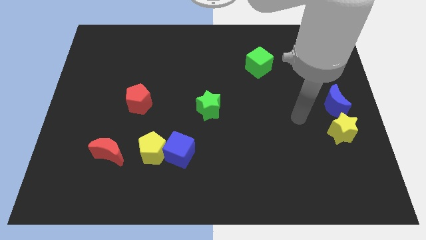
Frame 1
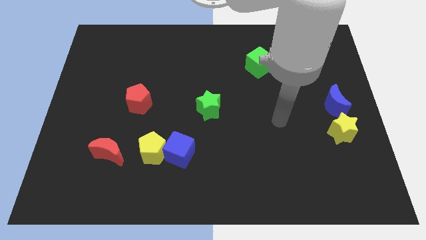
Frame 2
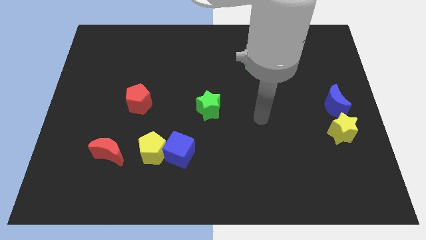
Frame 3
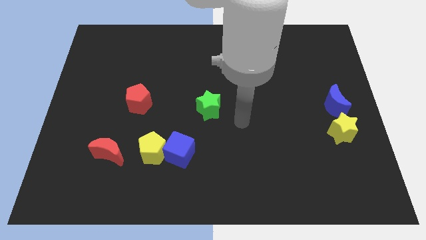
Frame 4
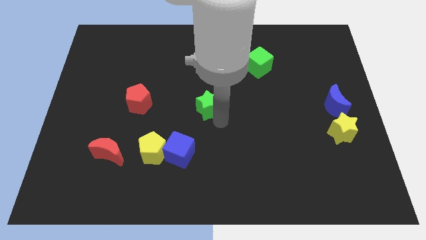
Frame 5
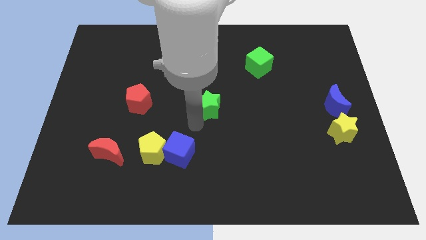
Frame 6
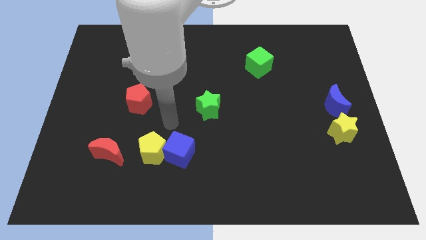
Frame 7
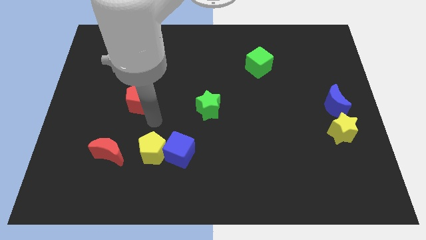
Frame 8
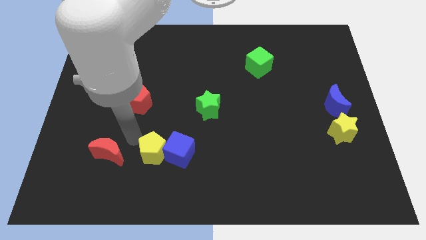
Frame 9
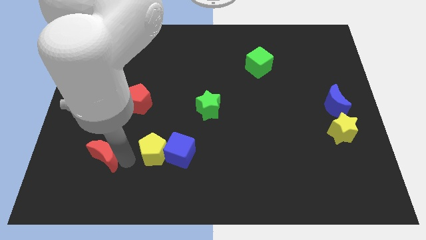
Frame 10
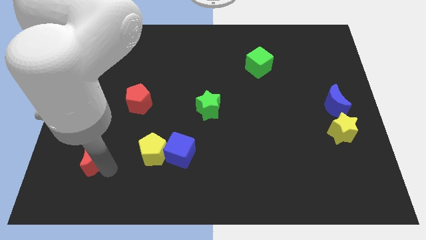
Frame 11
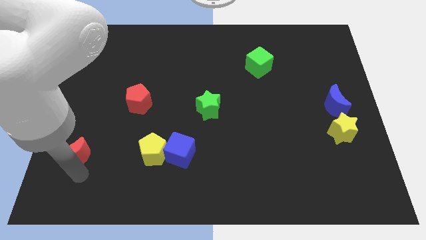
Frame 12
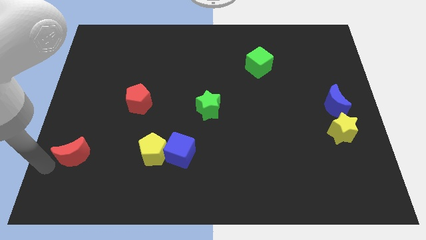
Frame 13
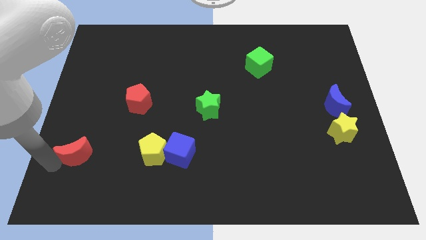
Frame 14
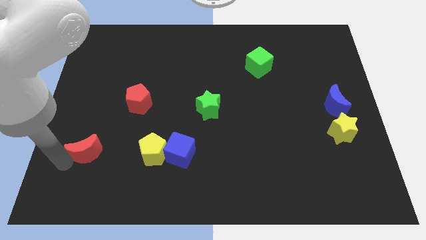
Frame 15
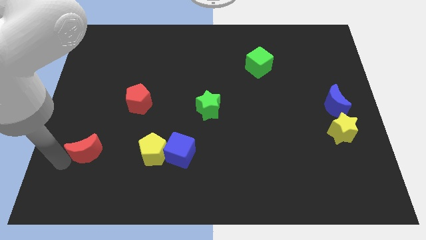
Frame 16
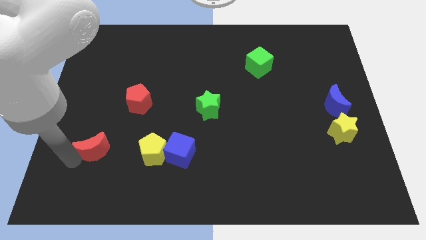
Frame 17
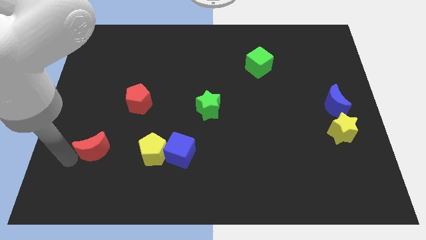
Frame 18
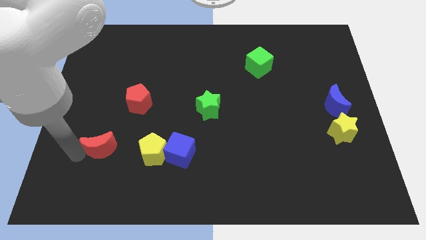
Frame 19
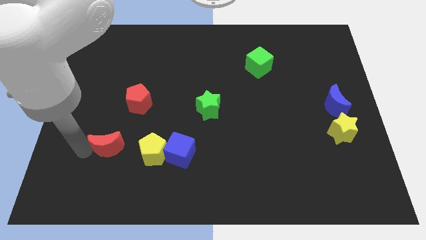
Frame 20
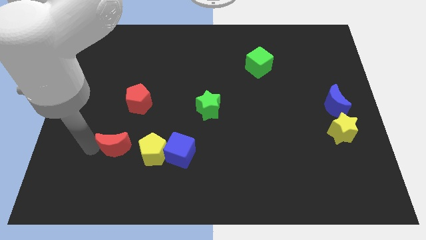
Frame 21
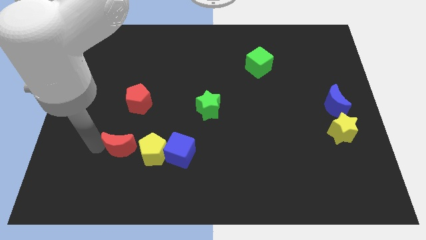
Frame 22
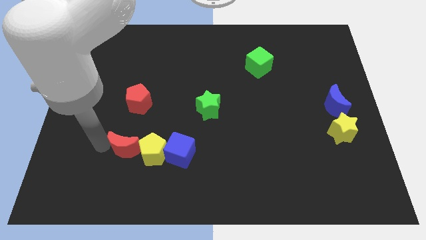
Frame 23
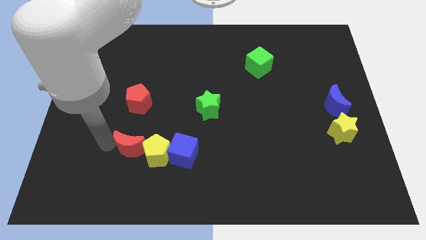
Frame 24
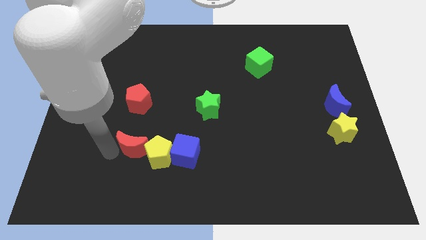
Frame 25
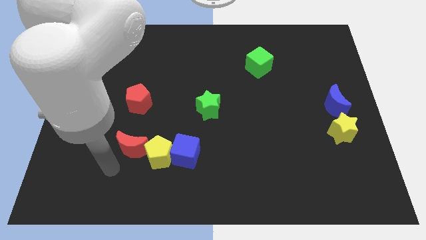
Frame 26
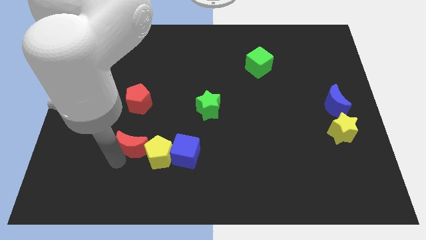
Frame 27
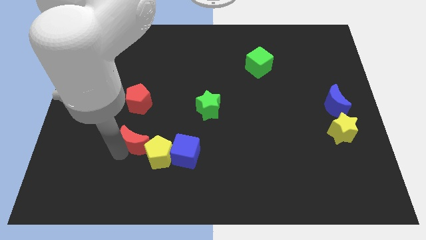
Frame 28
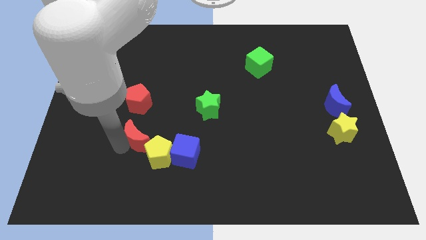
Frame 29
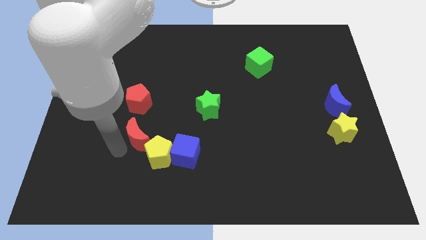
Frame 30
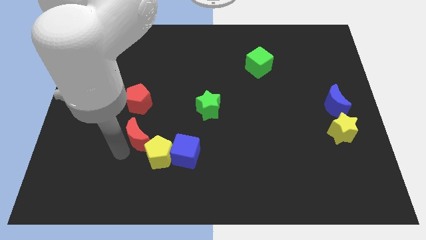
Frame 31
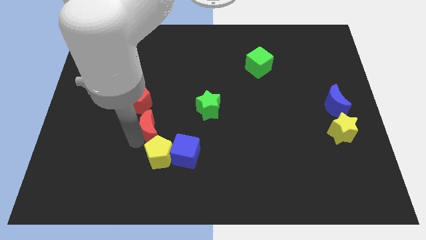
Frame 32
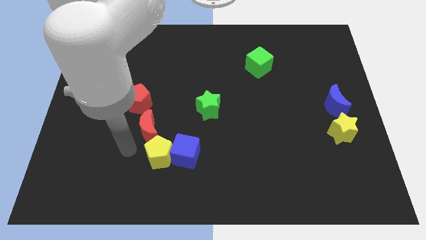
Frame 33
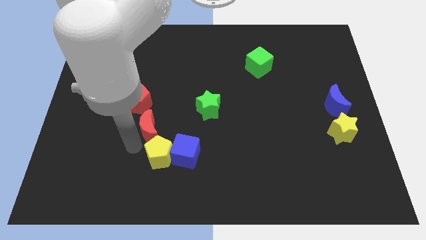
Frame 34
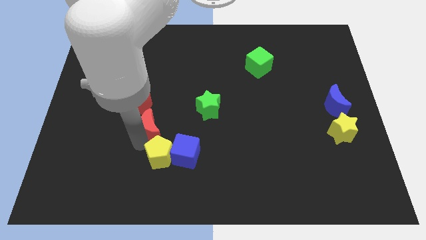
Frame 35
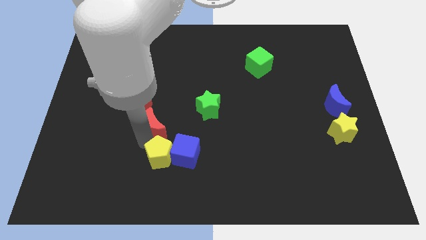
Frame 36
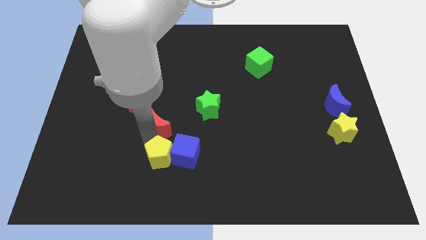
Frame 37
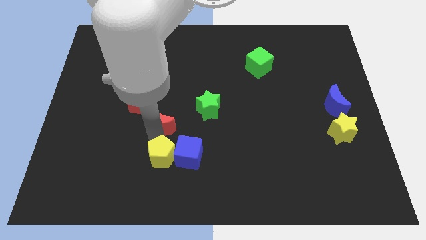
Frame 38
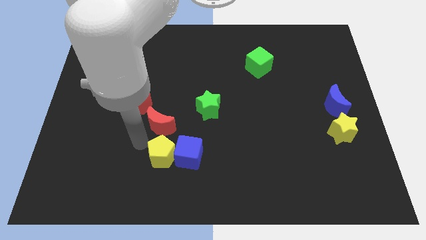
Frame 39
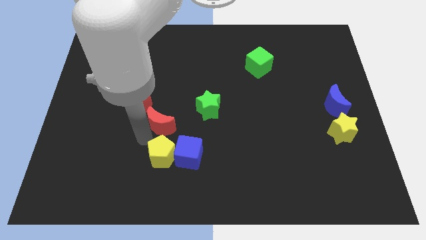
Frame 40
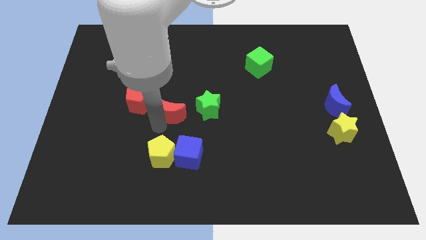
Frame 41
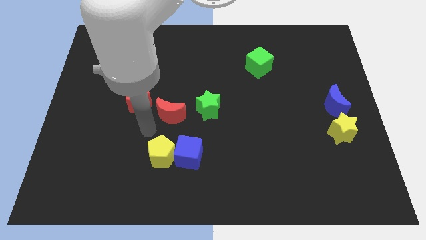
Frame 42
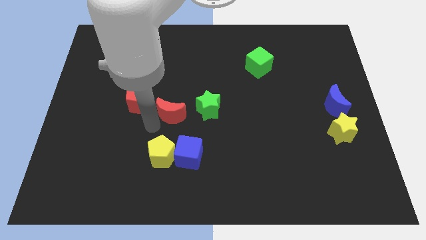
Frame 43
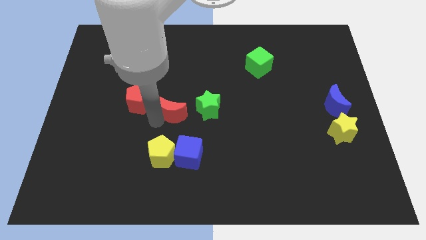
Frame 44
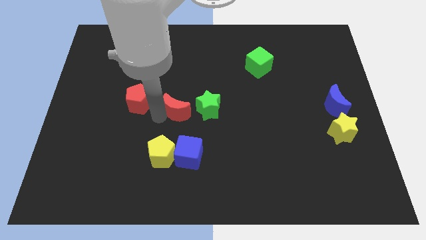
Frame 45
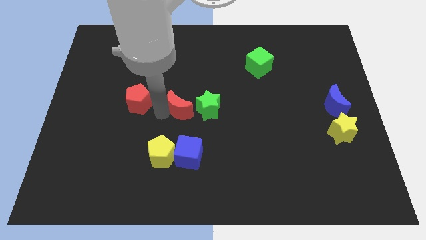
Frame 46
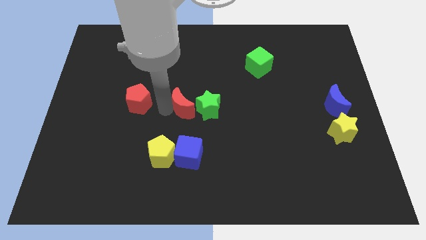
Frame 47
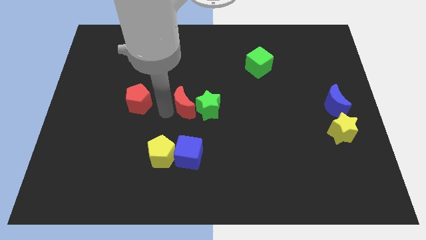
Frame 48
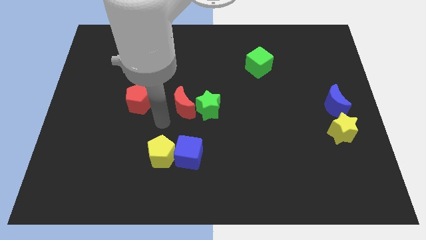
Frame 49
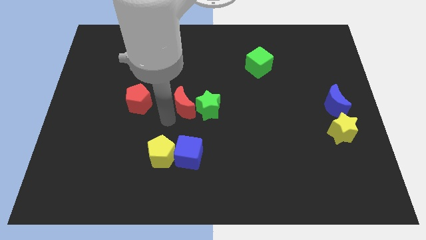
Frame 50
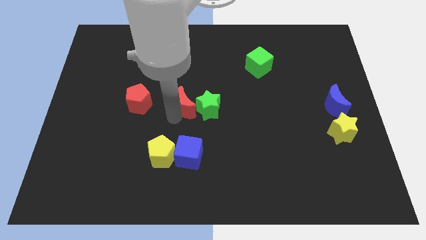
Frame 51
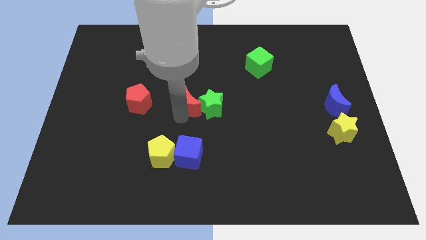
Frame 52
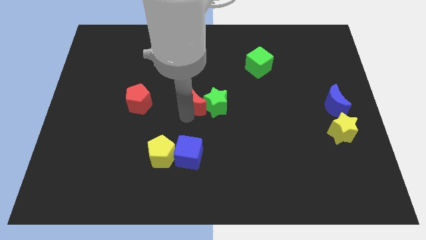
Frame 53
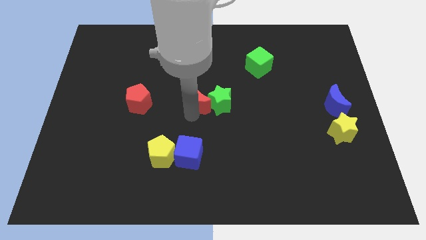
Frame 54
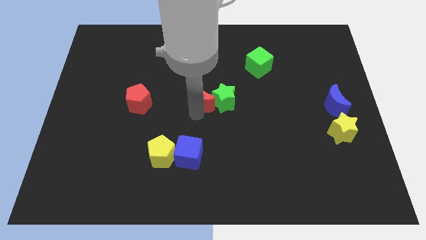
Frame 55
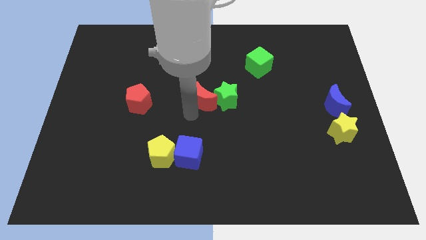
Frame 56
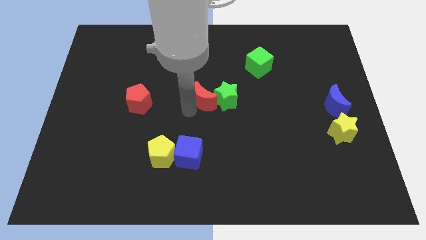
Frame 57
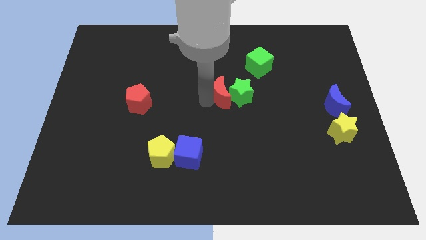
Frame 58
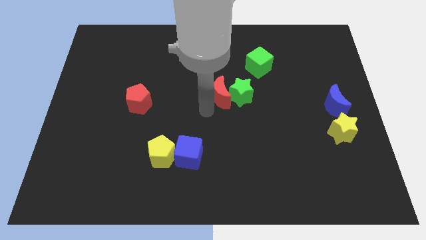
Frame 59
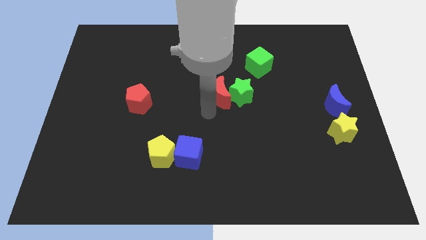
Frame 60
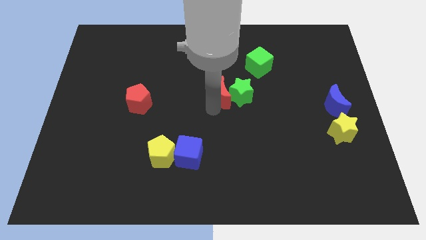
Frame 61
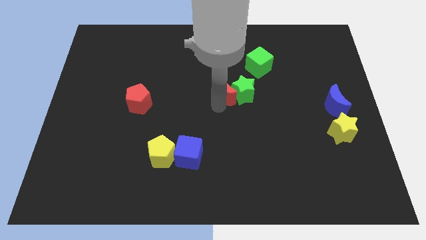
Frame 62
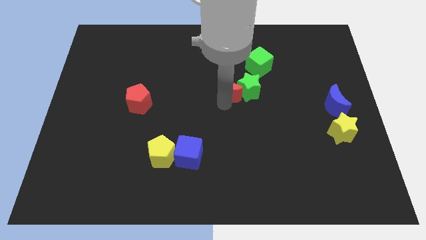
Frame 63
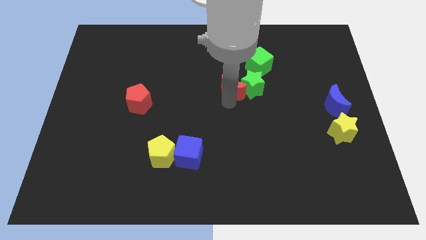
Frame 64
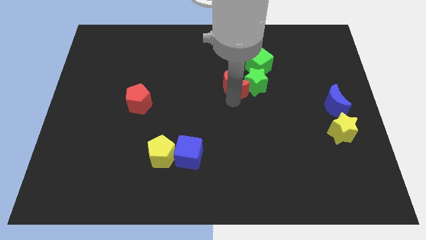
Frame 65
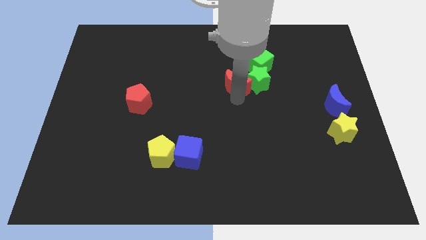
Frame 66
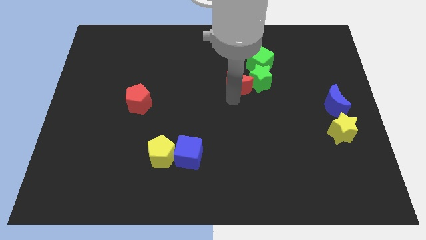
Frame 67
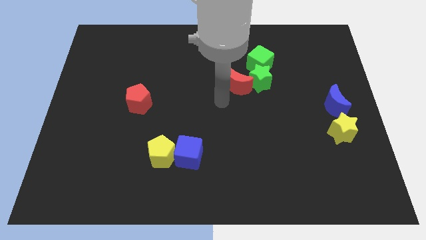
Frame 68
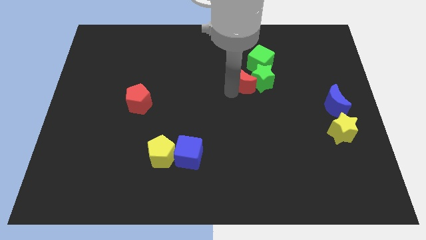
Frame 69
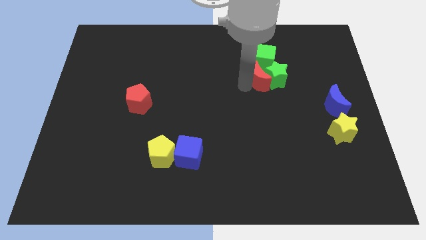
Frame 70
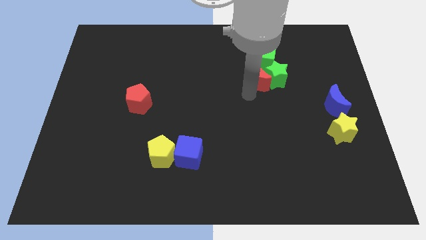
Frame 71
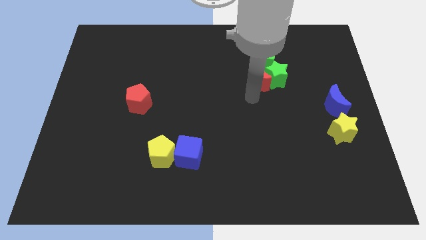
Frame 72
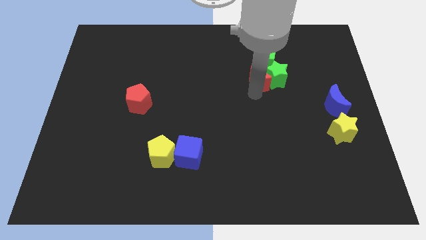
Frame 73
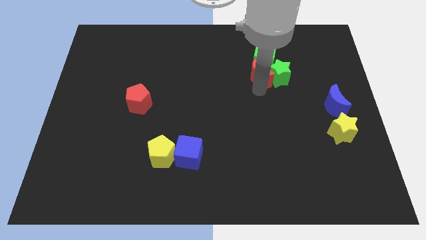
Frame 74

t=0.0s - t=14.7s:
slide the red moon towards the green cube

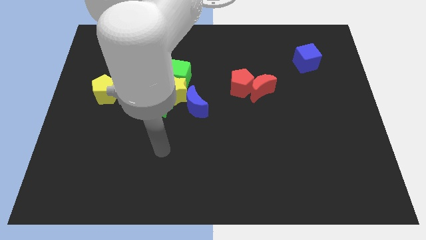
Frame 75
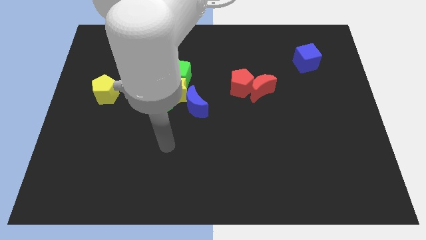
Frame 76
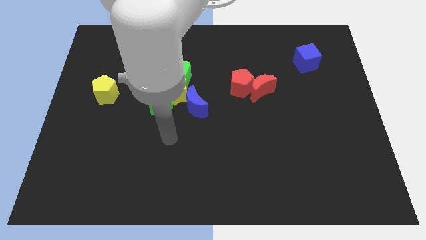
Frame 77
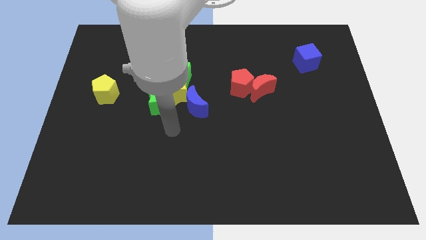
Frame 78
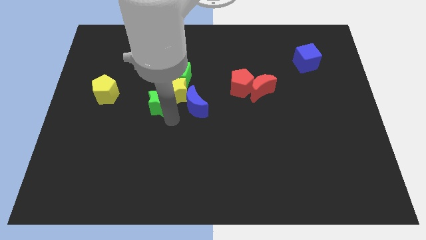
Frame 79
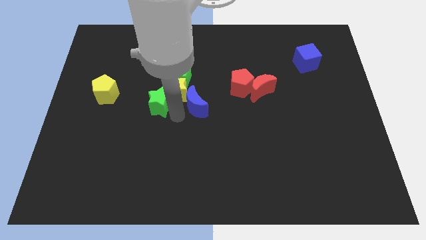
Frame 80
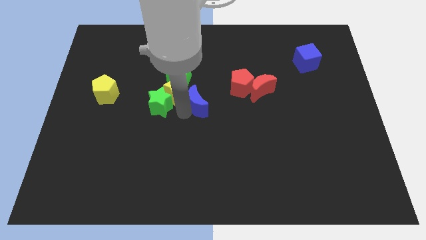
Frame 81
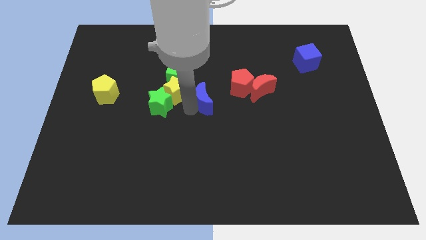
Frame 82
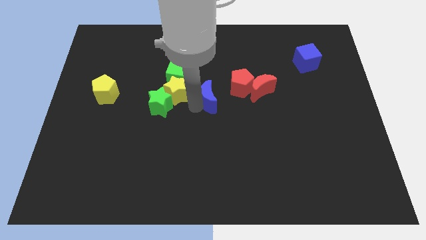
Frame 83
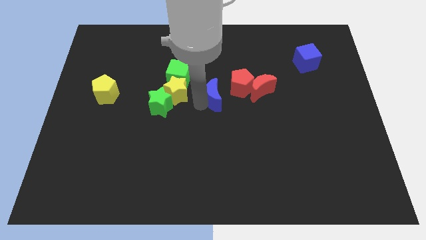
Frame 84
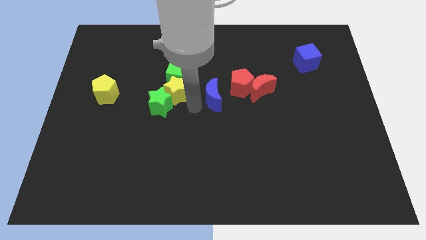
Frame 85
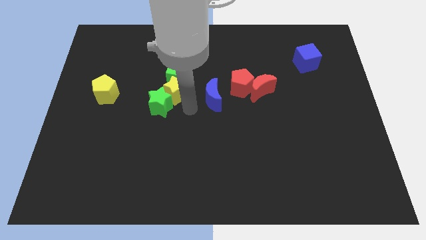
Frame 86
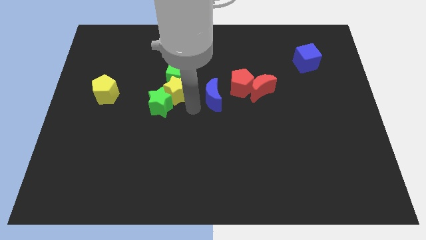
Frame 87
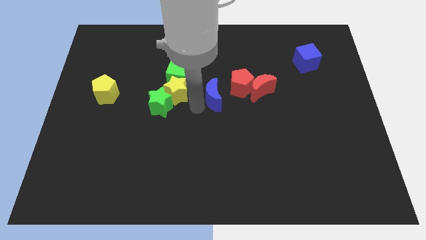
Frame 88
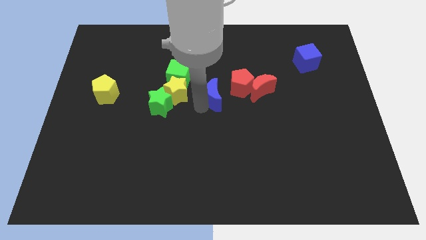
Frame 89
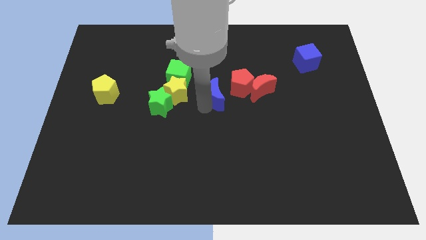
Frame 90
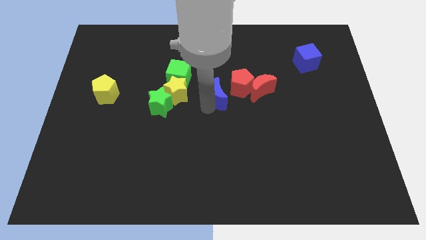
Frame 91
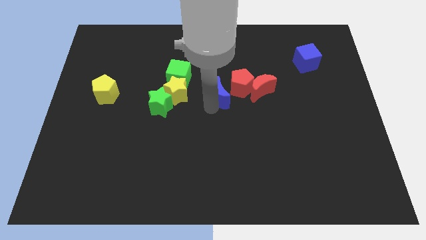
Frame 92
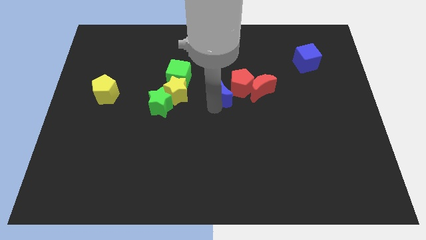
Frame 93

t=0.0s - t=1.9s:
slide the blue moon to the red pentagon
